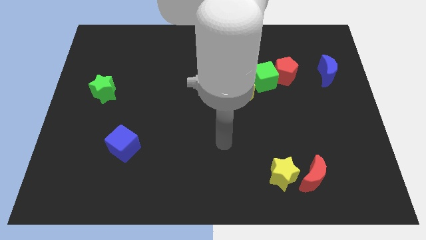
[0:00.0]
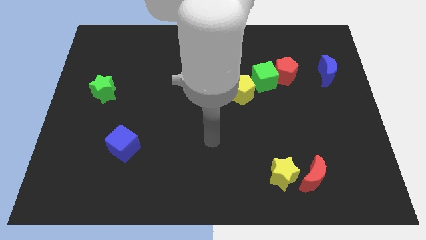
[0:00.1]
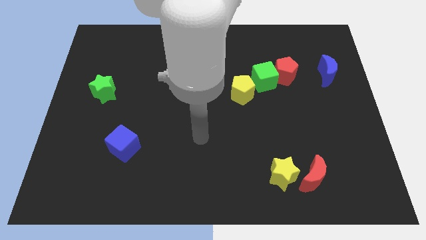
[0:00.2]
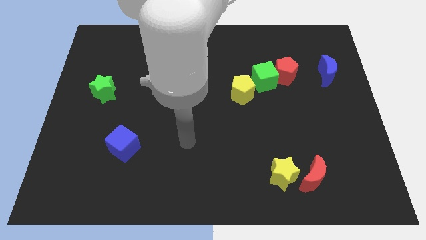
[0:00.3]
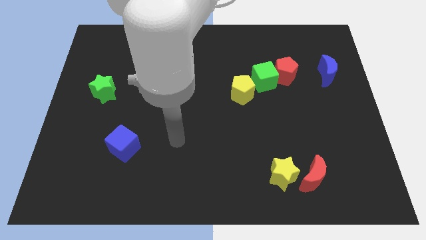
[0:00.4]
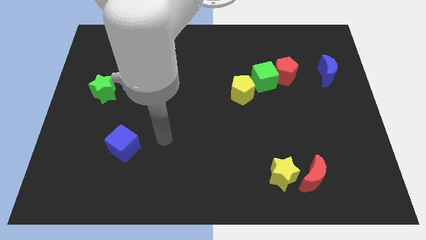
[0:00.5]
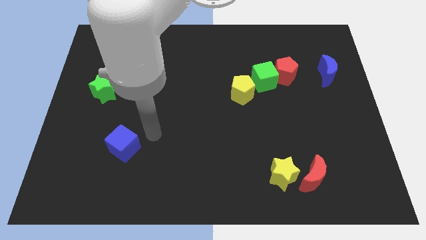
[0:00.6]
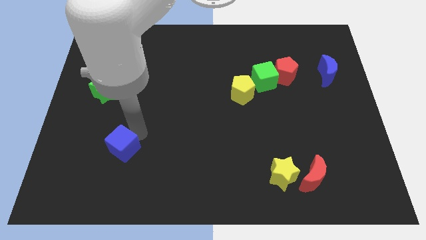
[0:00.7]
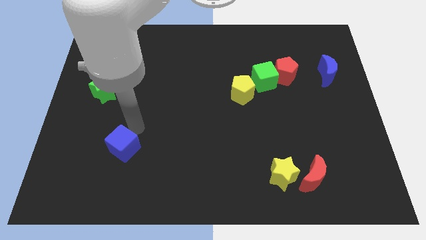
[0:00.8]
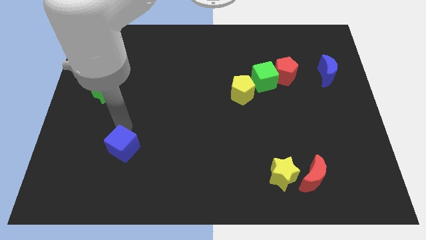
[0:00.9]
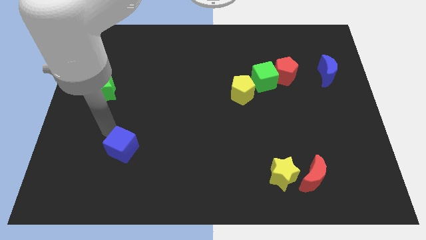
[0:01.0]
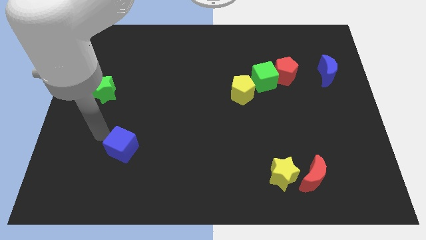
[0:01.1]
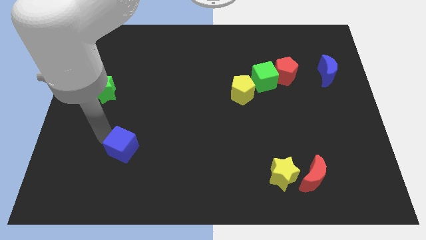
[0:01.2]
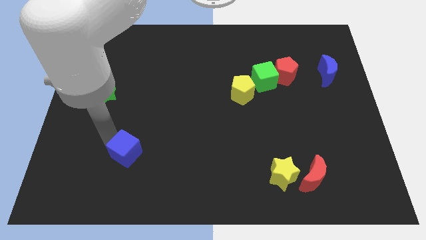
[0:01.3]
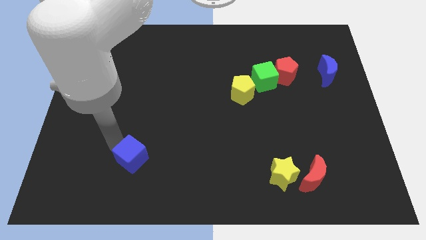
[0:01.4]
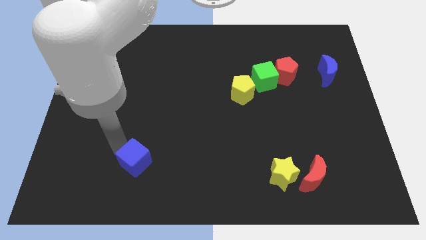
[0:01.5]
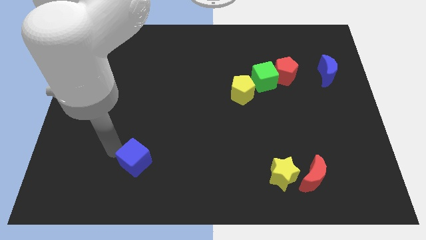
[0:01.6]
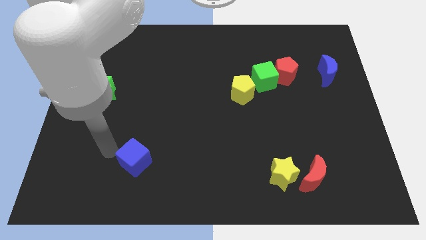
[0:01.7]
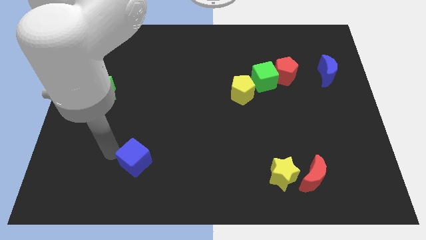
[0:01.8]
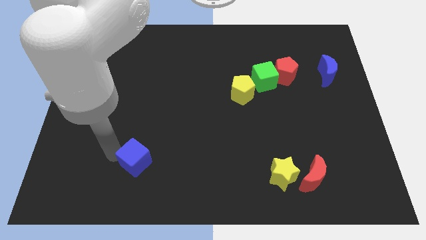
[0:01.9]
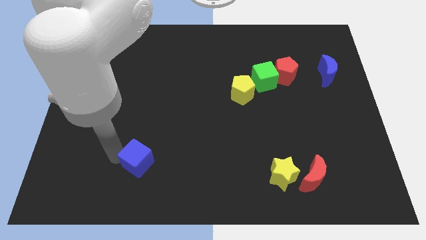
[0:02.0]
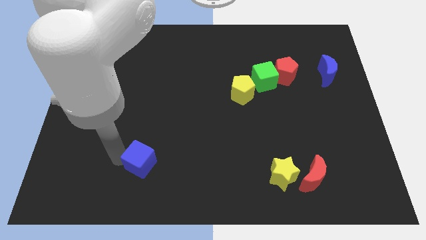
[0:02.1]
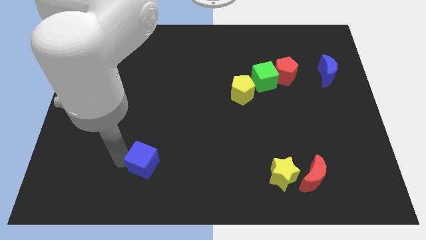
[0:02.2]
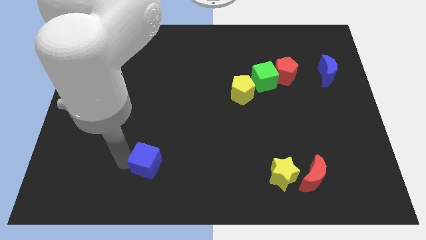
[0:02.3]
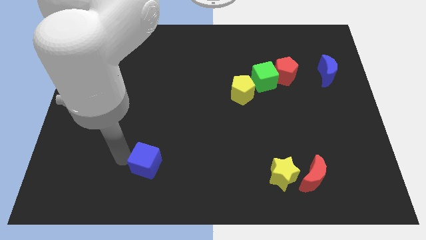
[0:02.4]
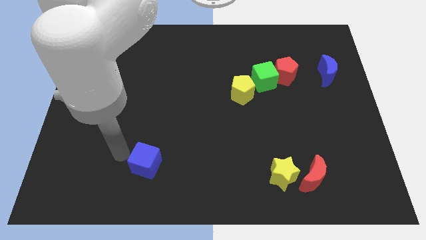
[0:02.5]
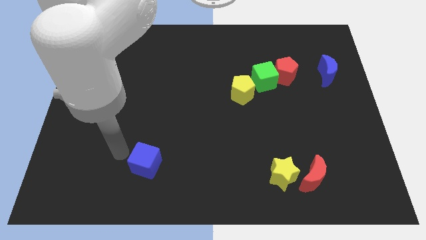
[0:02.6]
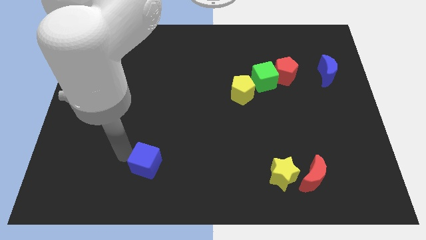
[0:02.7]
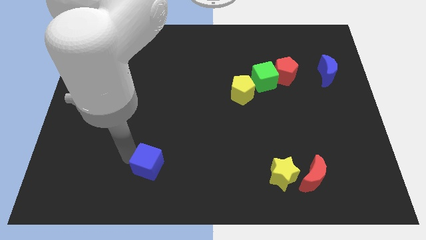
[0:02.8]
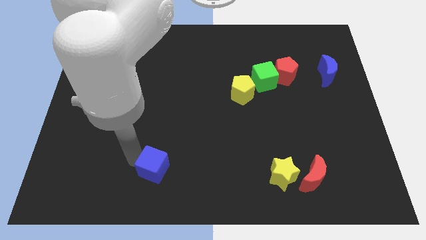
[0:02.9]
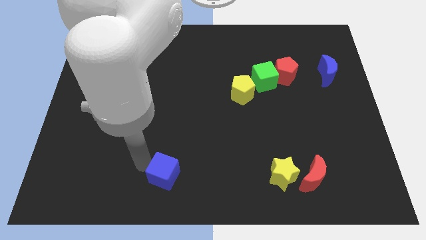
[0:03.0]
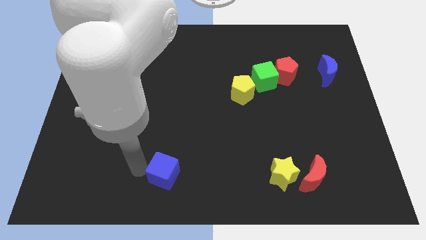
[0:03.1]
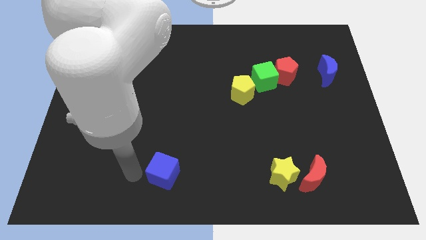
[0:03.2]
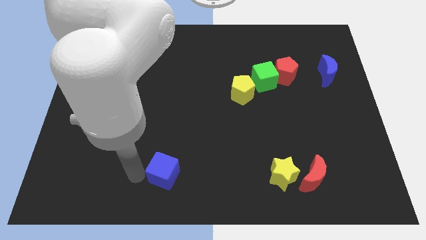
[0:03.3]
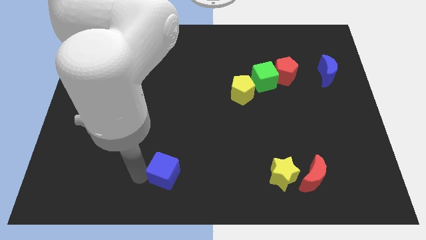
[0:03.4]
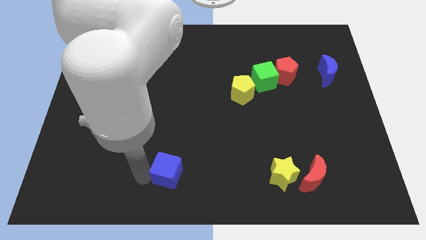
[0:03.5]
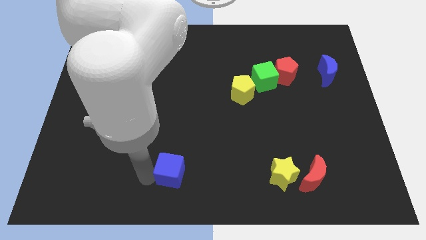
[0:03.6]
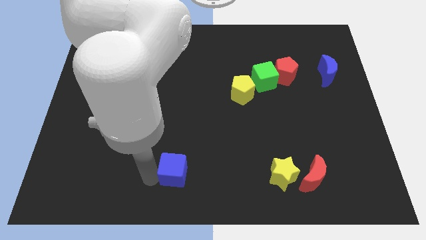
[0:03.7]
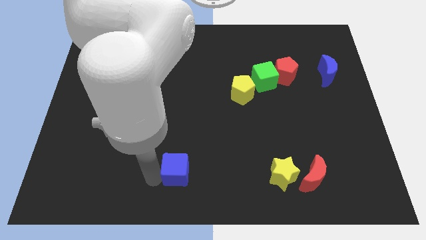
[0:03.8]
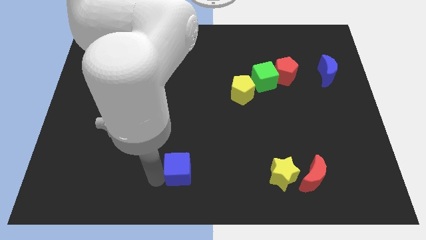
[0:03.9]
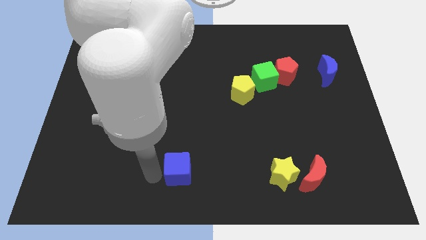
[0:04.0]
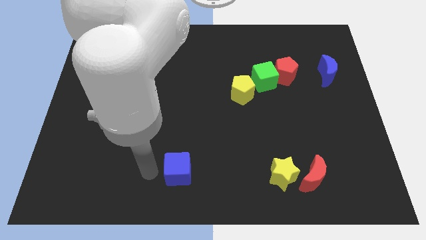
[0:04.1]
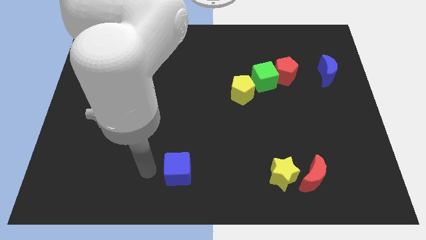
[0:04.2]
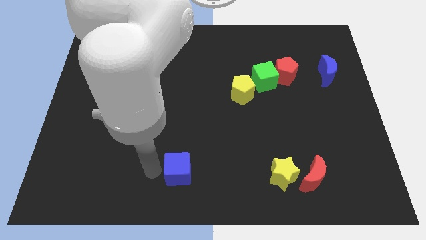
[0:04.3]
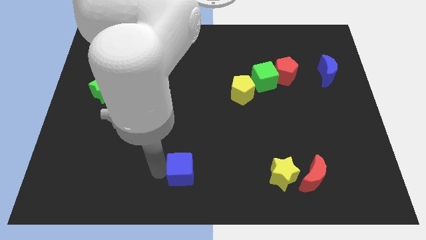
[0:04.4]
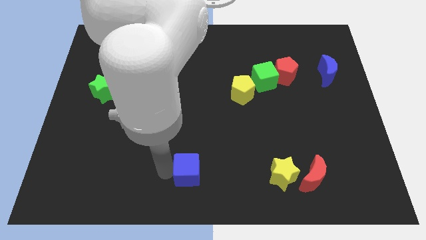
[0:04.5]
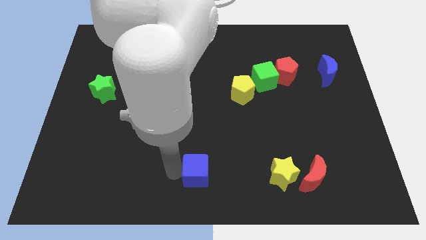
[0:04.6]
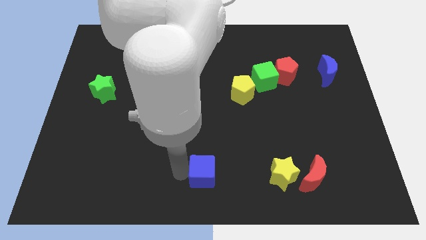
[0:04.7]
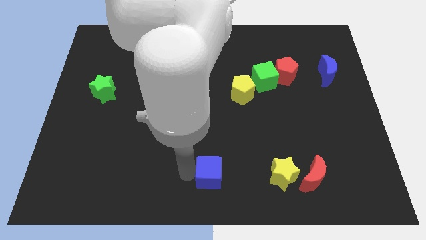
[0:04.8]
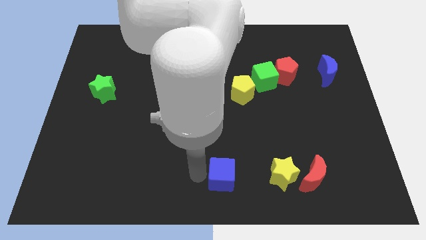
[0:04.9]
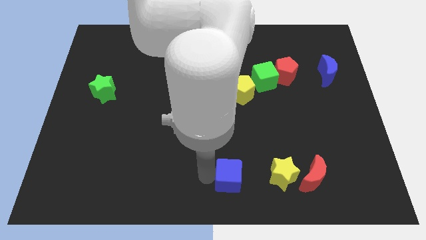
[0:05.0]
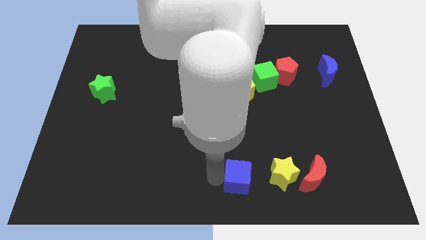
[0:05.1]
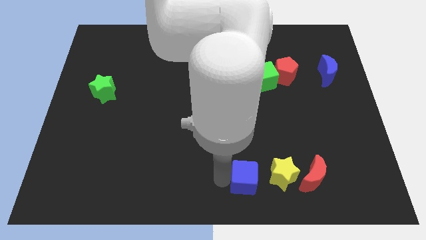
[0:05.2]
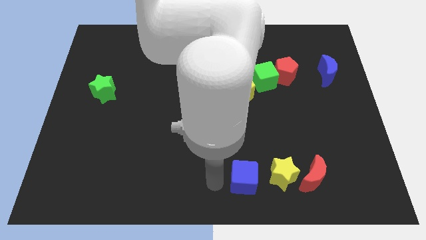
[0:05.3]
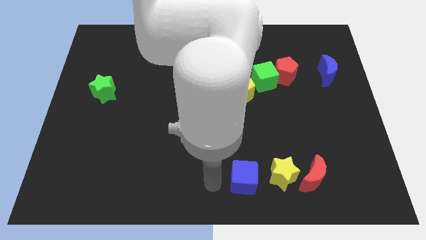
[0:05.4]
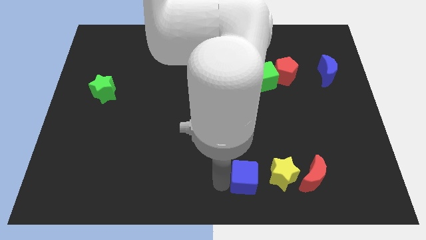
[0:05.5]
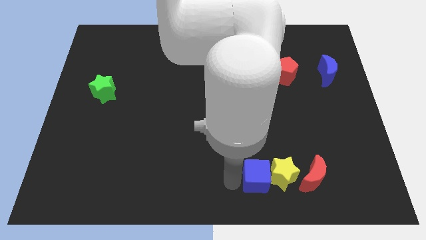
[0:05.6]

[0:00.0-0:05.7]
slide the blue cube to the yellow star

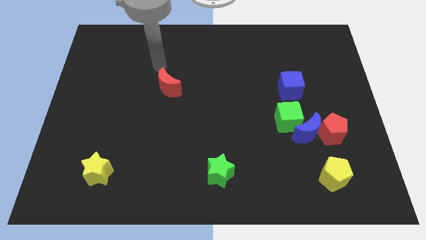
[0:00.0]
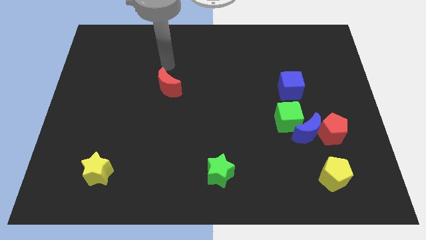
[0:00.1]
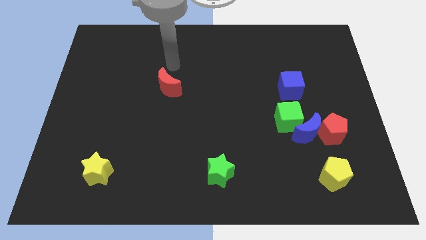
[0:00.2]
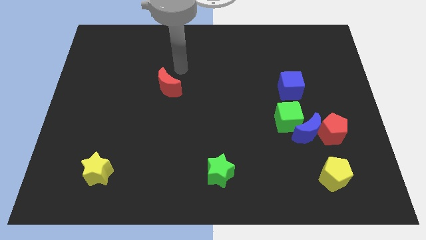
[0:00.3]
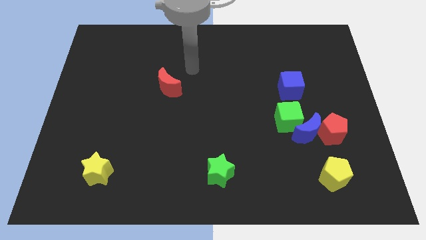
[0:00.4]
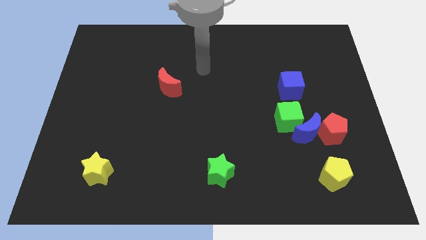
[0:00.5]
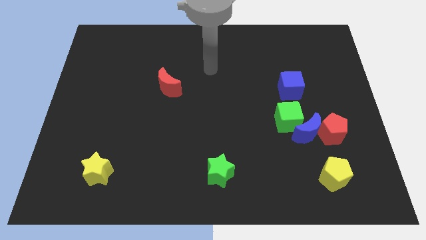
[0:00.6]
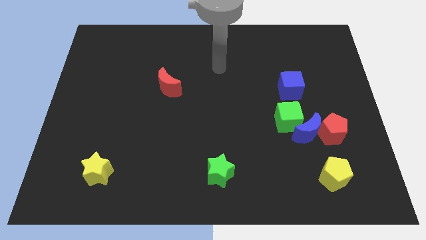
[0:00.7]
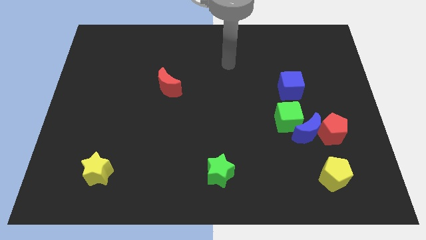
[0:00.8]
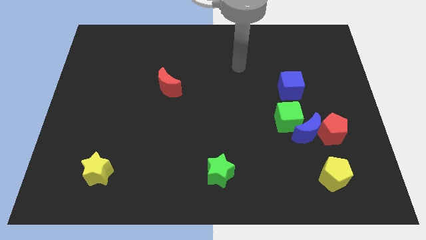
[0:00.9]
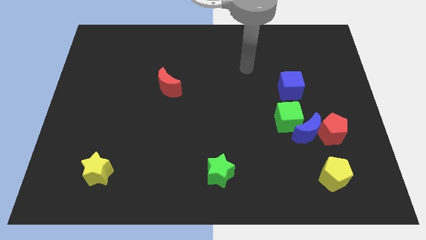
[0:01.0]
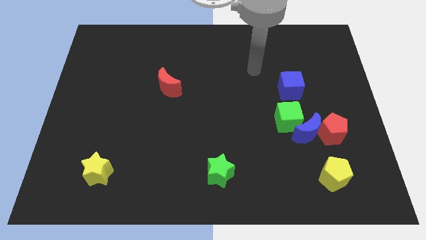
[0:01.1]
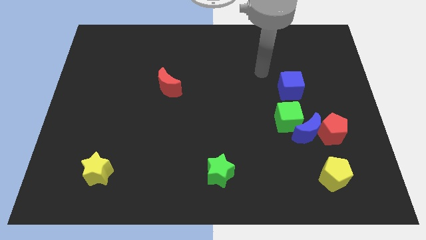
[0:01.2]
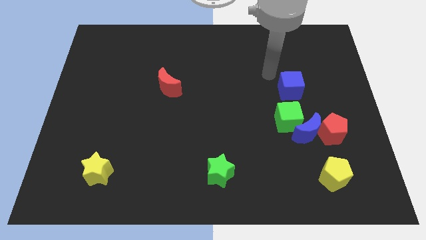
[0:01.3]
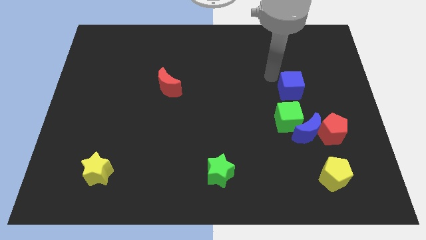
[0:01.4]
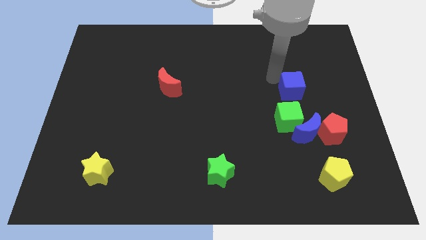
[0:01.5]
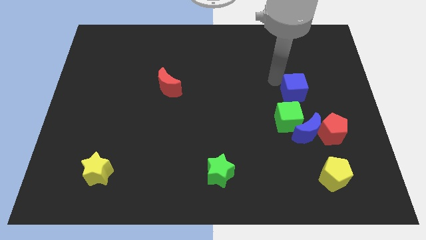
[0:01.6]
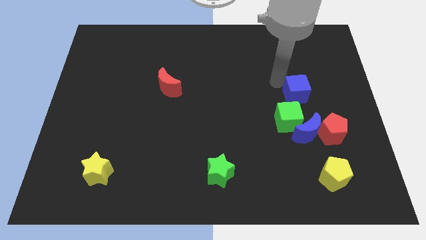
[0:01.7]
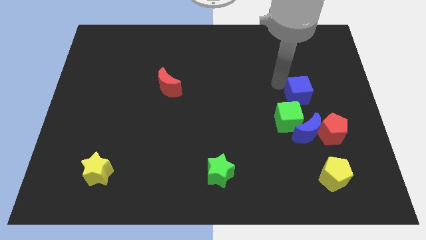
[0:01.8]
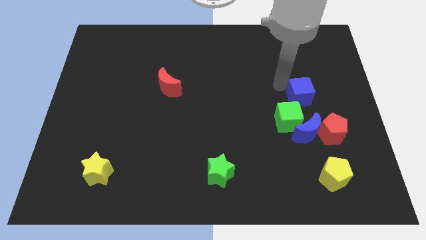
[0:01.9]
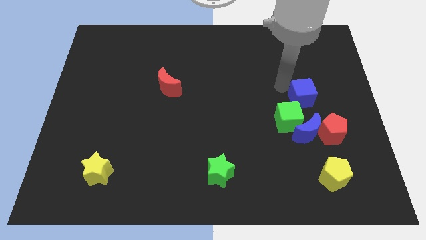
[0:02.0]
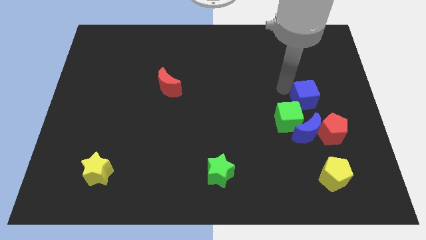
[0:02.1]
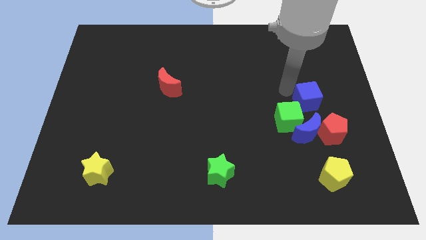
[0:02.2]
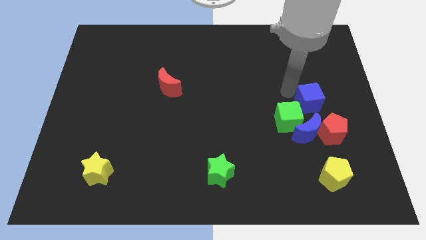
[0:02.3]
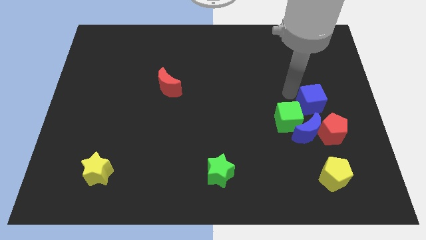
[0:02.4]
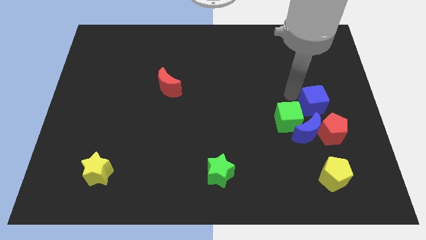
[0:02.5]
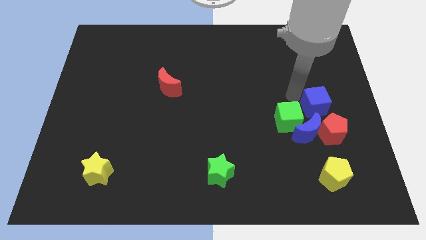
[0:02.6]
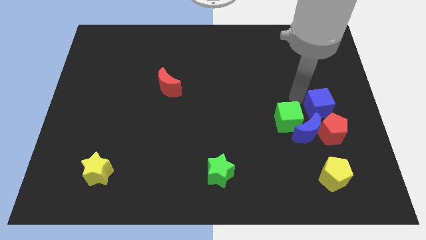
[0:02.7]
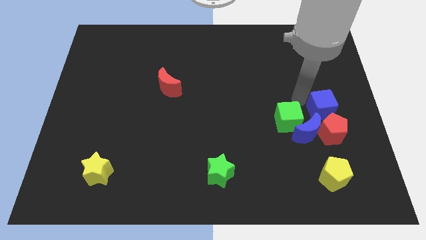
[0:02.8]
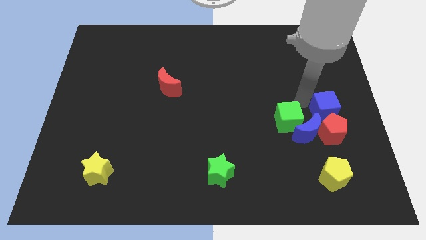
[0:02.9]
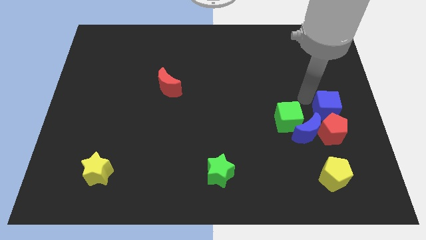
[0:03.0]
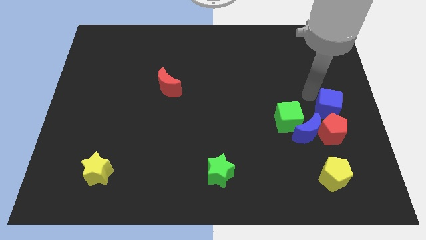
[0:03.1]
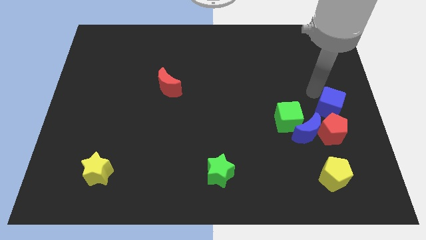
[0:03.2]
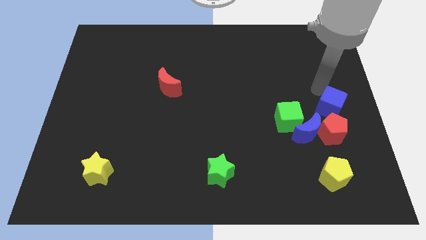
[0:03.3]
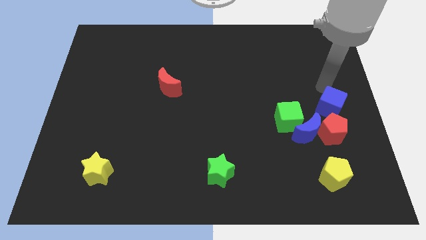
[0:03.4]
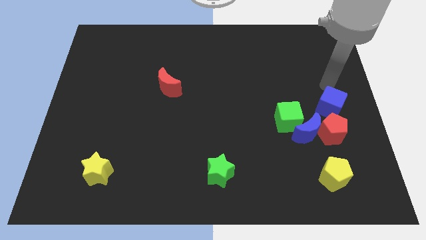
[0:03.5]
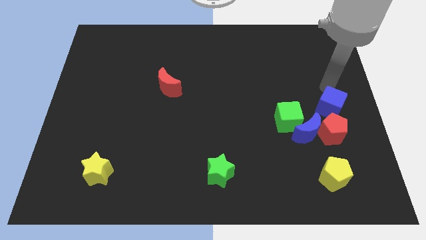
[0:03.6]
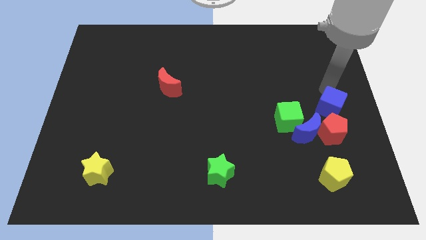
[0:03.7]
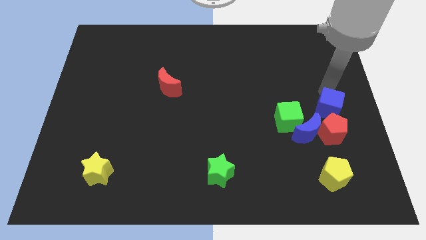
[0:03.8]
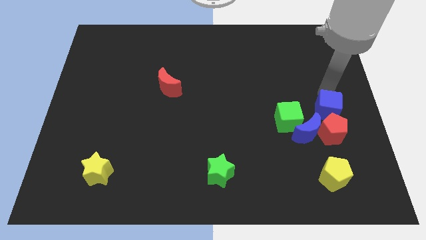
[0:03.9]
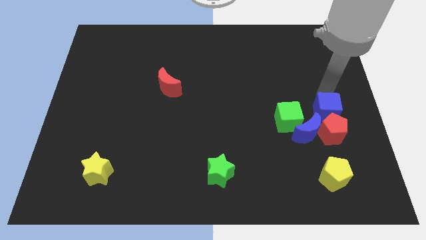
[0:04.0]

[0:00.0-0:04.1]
push the blue cube next to the red pentagon
